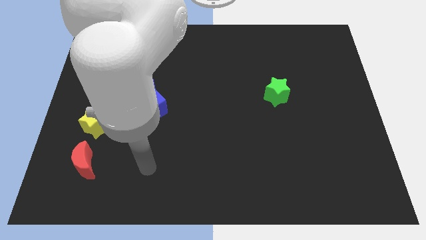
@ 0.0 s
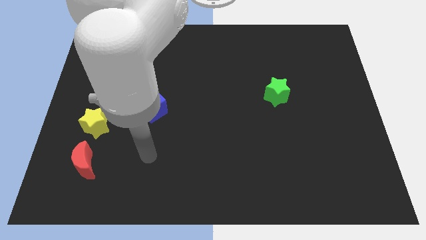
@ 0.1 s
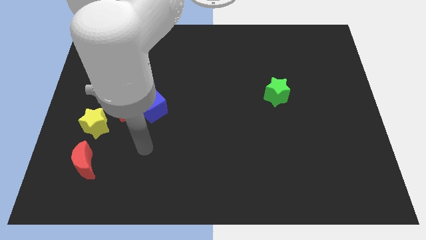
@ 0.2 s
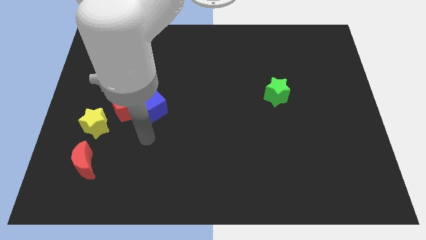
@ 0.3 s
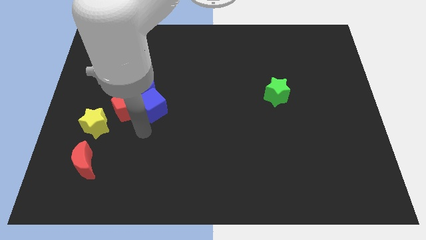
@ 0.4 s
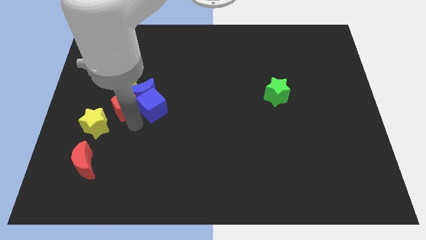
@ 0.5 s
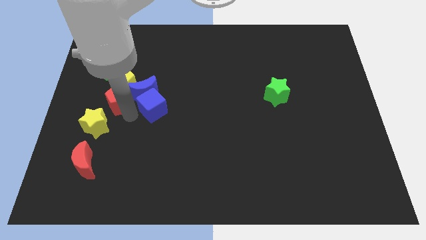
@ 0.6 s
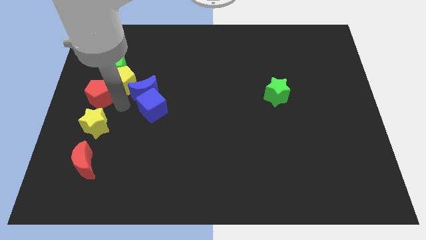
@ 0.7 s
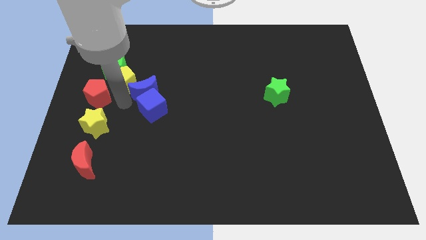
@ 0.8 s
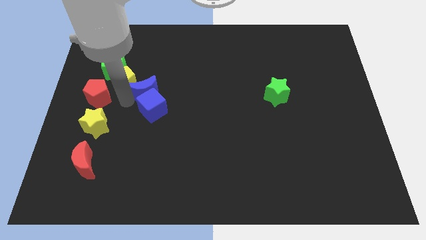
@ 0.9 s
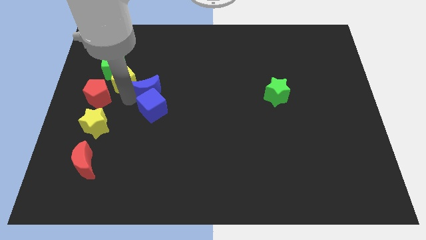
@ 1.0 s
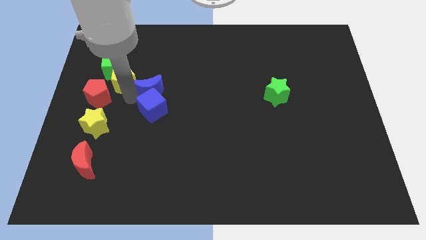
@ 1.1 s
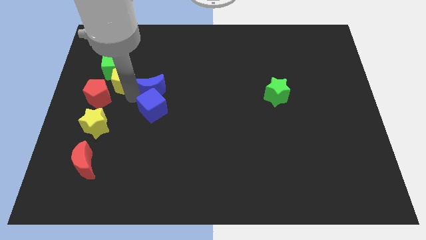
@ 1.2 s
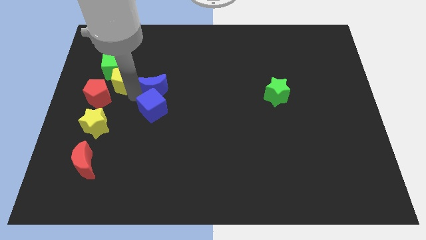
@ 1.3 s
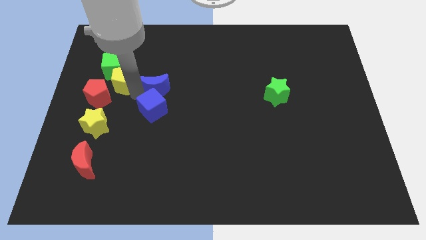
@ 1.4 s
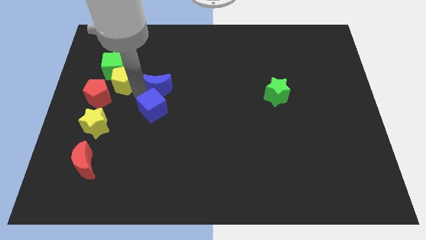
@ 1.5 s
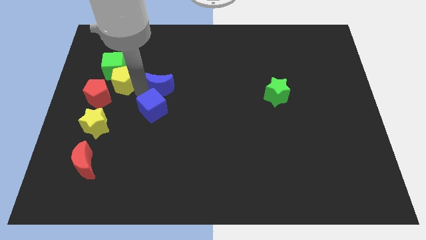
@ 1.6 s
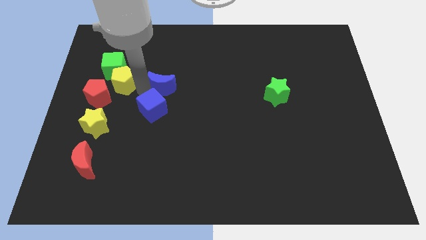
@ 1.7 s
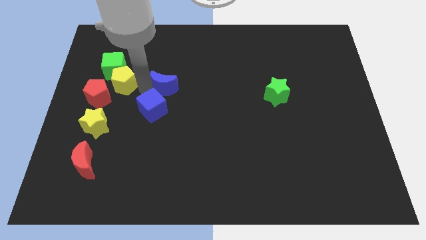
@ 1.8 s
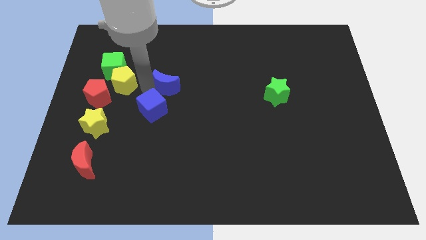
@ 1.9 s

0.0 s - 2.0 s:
move the blue moon away from the blue cube, red pentagon, and yellow pentagon

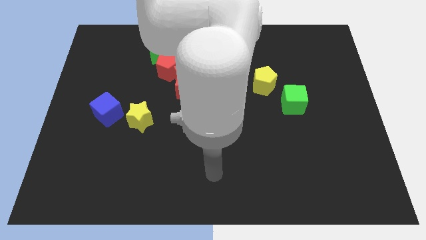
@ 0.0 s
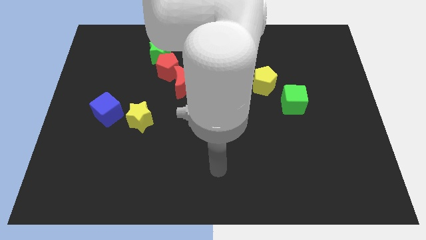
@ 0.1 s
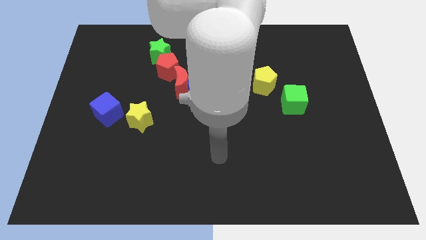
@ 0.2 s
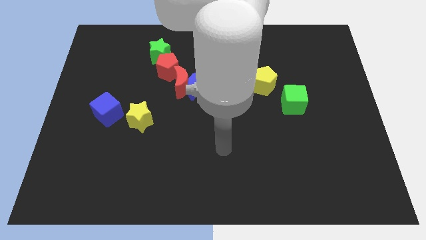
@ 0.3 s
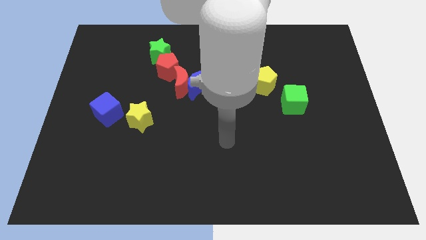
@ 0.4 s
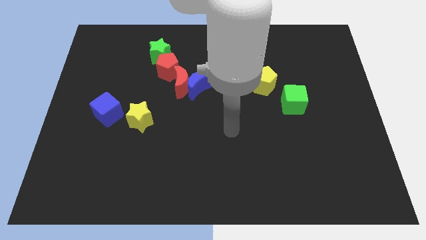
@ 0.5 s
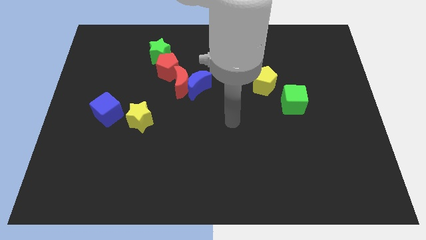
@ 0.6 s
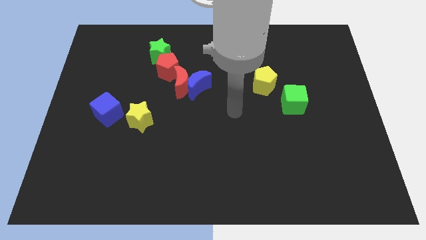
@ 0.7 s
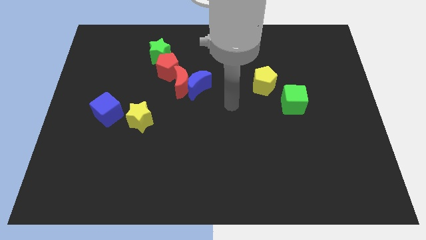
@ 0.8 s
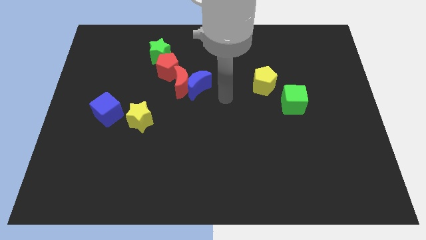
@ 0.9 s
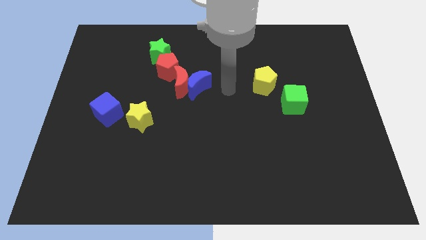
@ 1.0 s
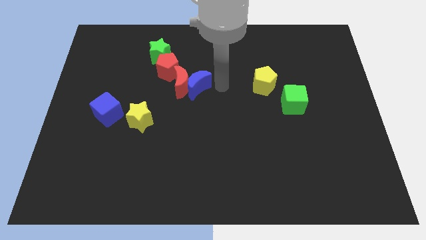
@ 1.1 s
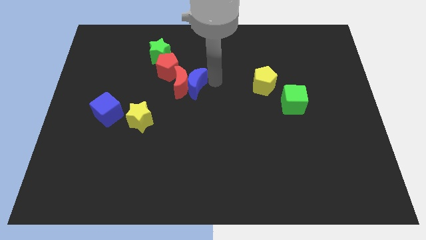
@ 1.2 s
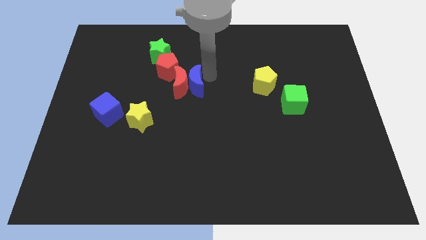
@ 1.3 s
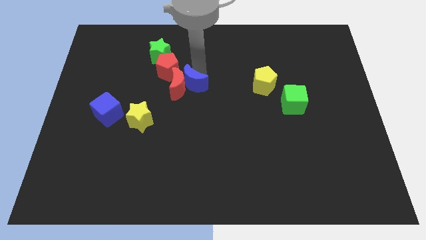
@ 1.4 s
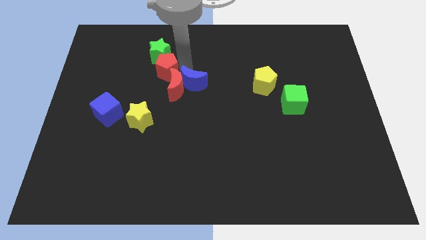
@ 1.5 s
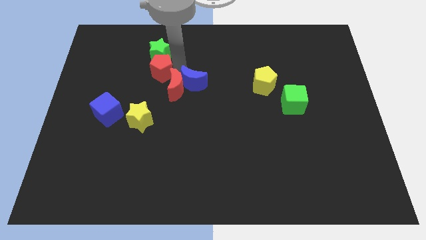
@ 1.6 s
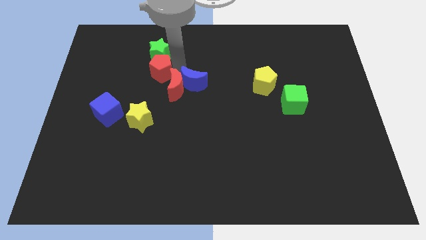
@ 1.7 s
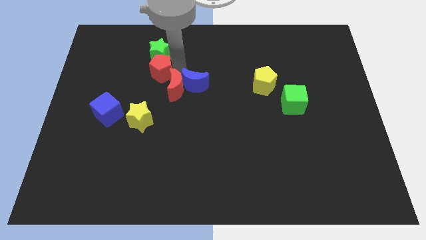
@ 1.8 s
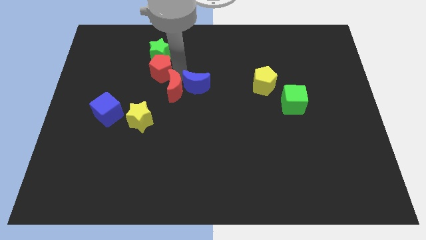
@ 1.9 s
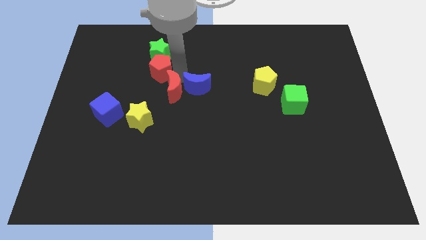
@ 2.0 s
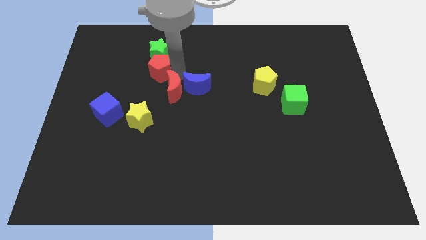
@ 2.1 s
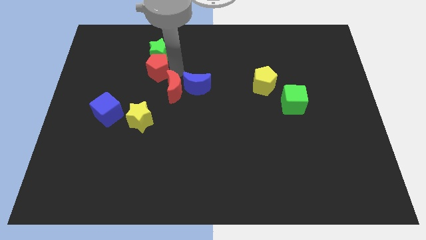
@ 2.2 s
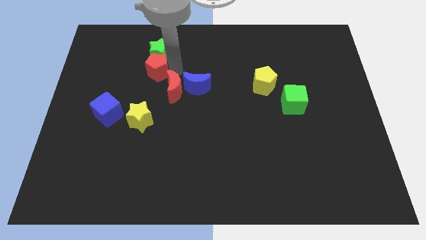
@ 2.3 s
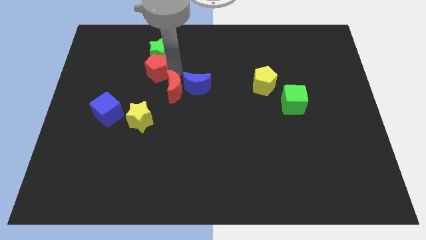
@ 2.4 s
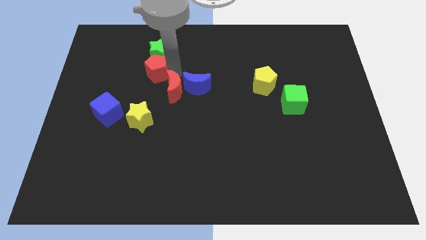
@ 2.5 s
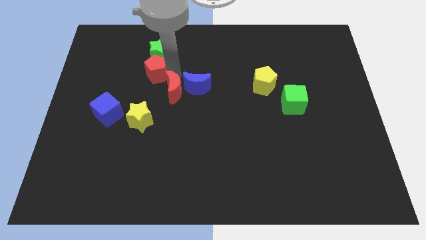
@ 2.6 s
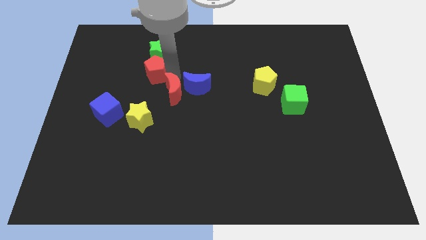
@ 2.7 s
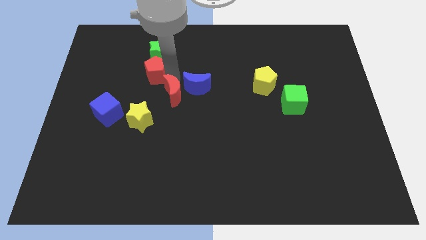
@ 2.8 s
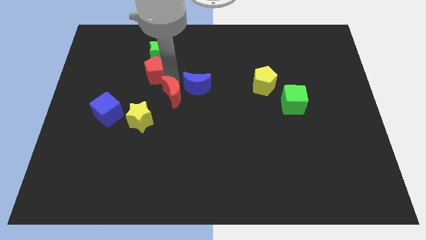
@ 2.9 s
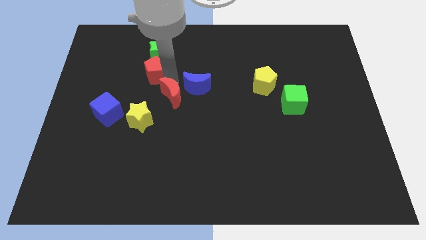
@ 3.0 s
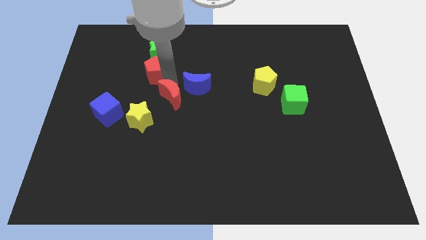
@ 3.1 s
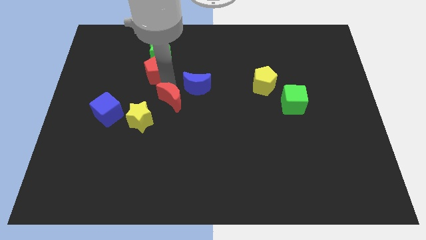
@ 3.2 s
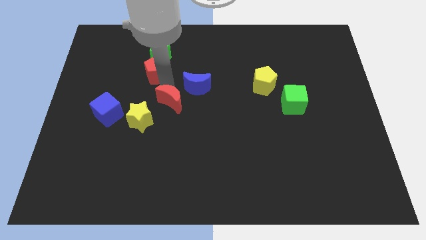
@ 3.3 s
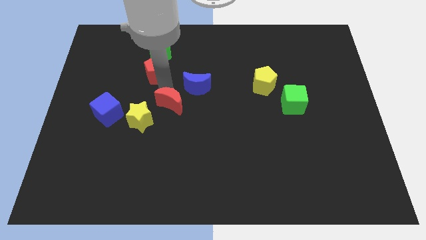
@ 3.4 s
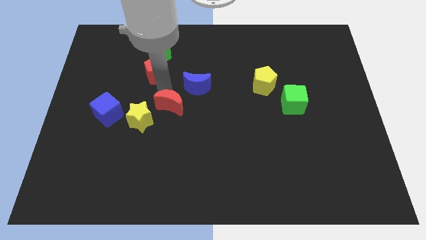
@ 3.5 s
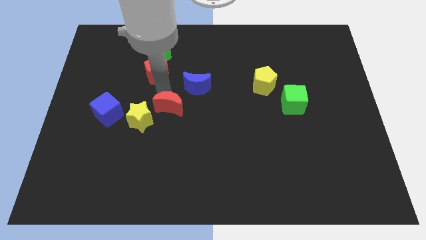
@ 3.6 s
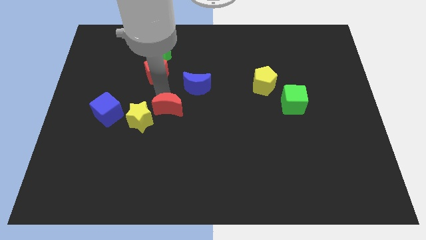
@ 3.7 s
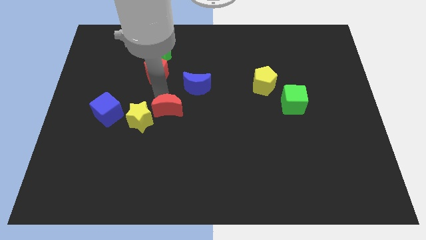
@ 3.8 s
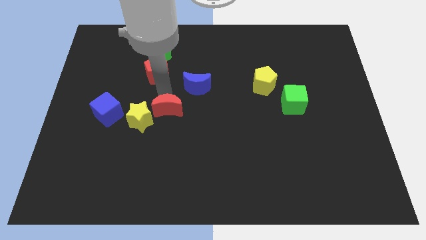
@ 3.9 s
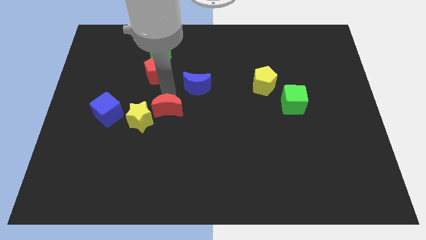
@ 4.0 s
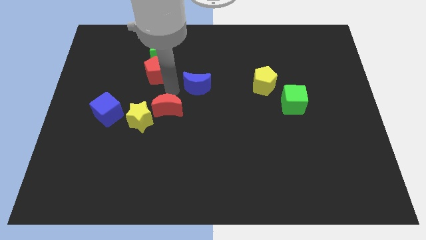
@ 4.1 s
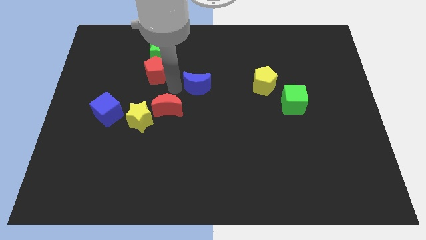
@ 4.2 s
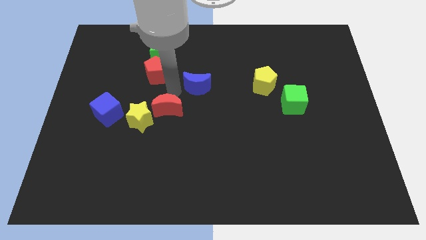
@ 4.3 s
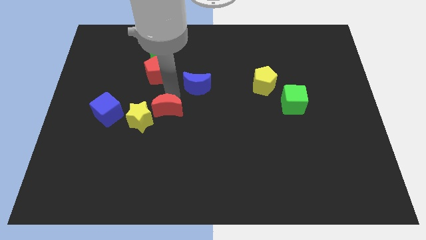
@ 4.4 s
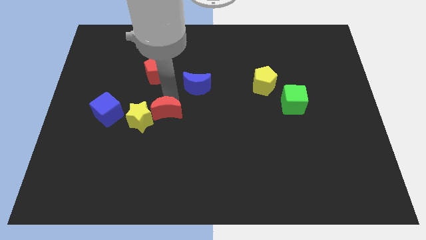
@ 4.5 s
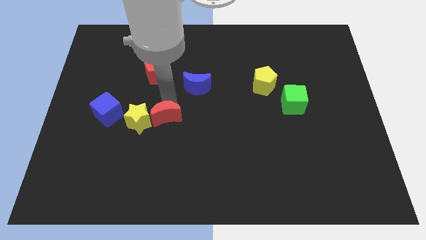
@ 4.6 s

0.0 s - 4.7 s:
pull the red moon apart from the blue moon and red pentagon

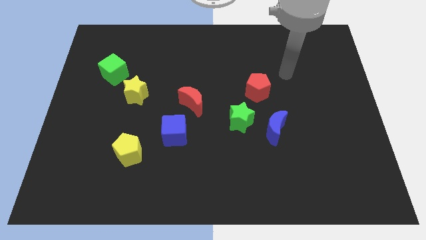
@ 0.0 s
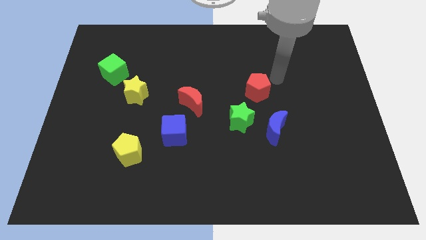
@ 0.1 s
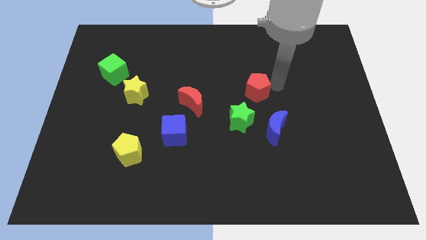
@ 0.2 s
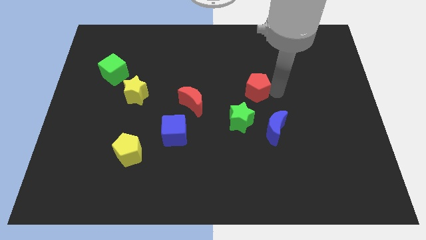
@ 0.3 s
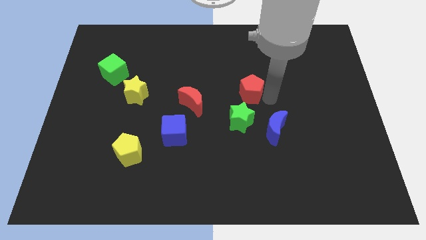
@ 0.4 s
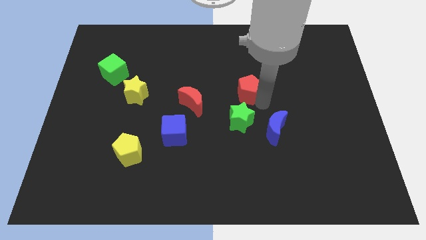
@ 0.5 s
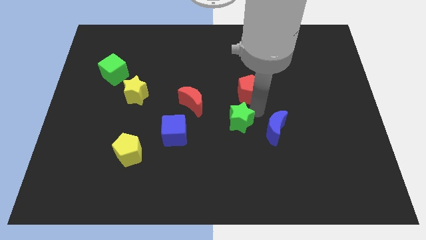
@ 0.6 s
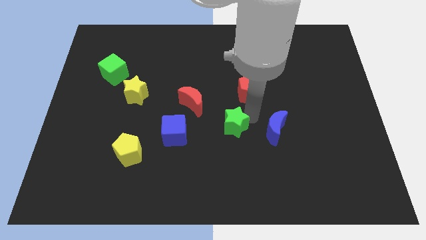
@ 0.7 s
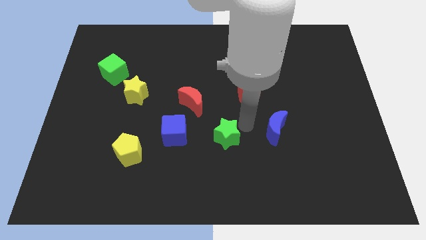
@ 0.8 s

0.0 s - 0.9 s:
separate the blue moon from the green star

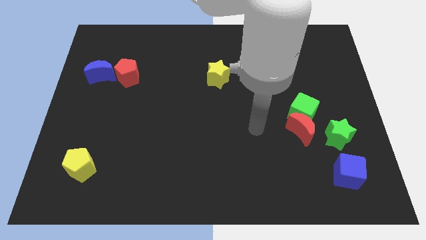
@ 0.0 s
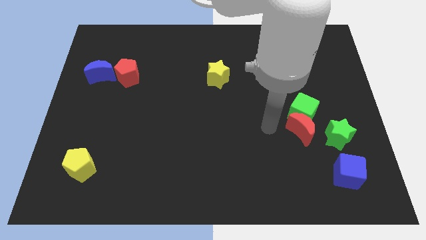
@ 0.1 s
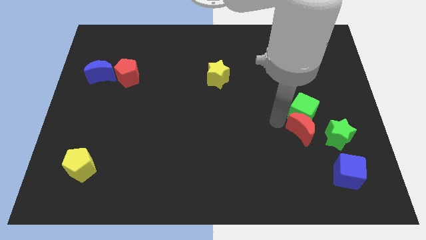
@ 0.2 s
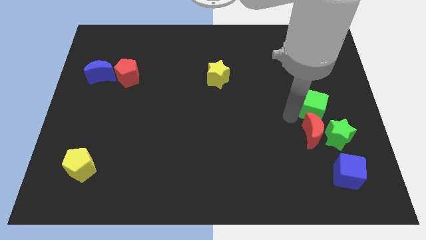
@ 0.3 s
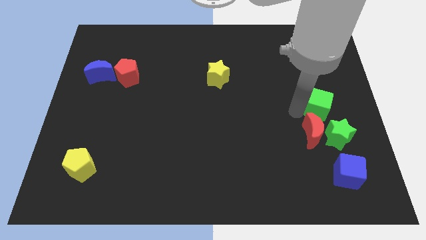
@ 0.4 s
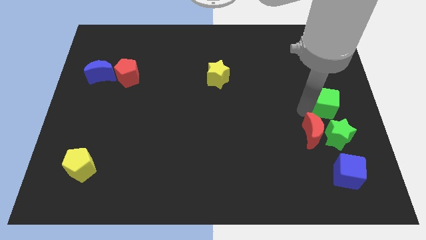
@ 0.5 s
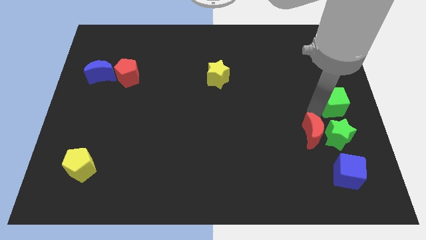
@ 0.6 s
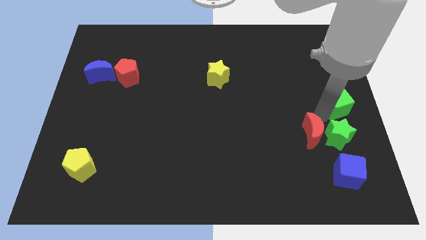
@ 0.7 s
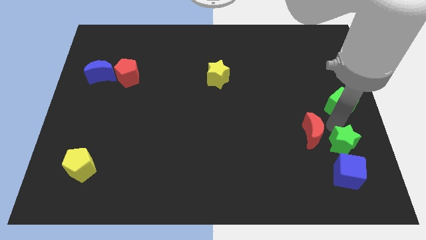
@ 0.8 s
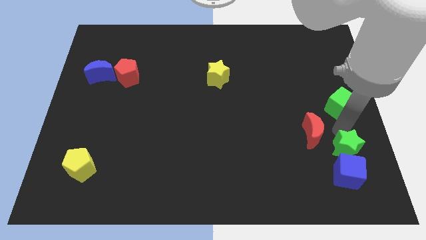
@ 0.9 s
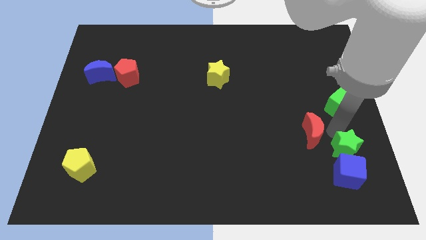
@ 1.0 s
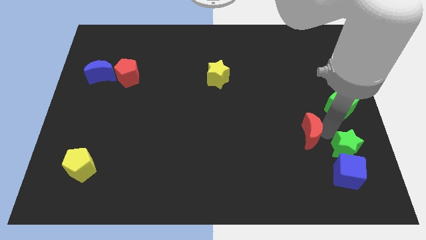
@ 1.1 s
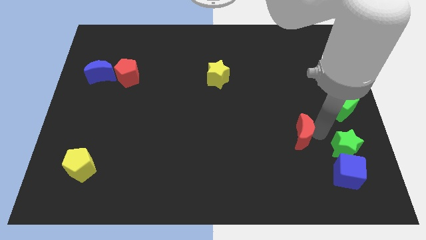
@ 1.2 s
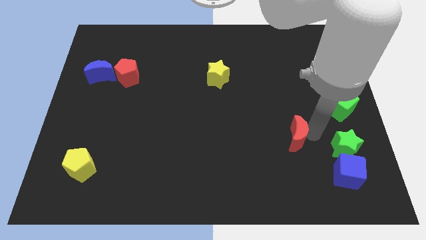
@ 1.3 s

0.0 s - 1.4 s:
move the red moon away from the green cube and green star

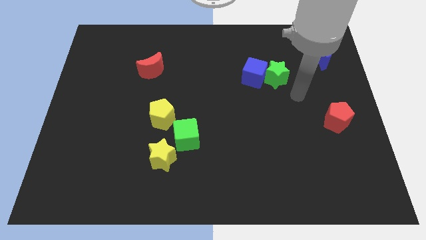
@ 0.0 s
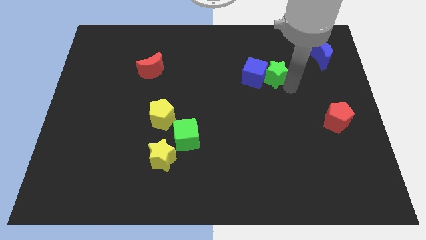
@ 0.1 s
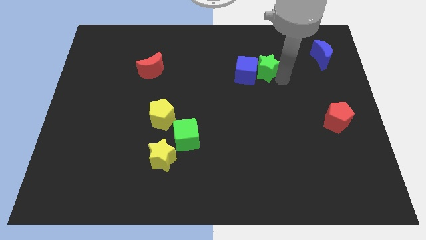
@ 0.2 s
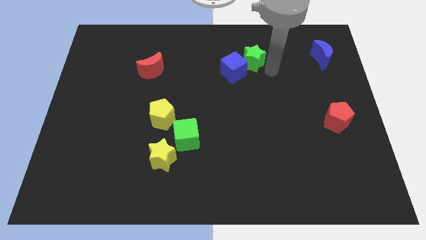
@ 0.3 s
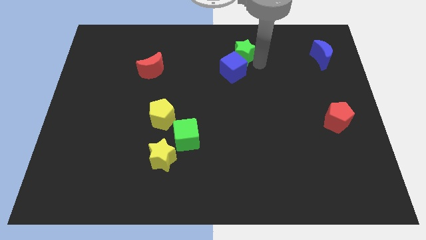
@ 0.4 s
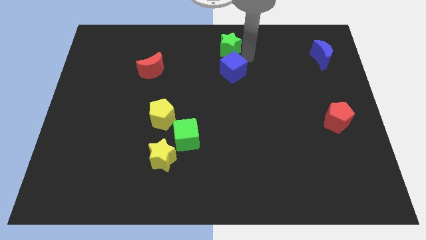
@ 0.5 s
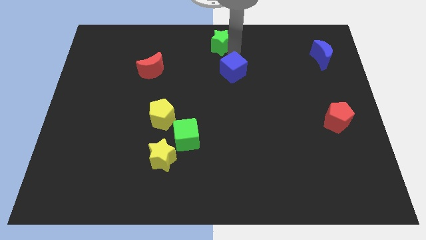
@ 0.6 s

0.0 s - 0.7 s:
move the blue cube away from the green star
